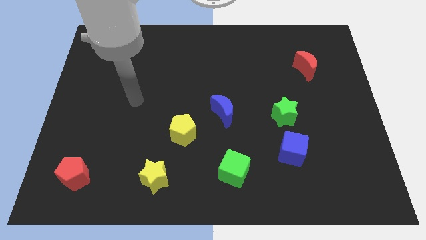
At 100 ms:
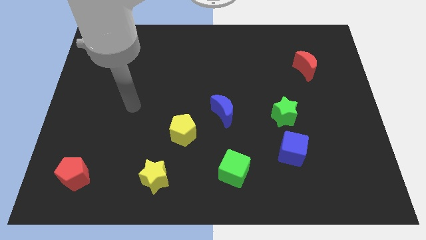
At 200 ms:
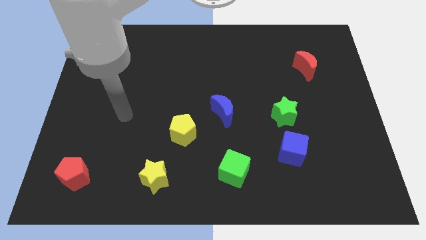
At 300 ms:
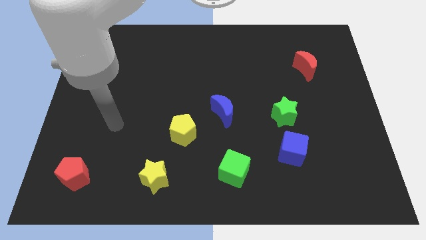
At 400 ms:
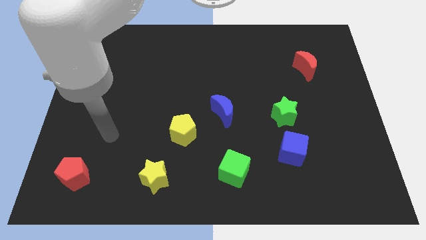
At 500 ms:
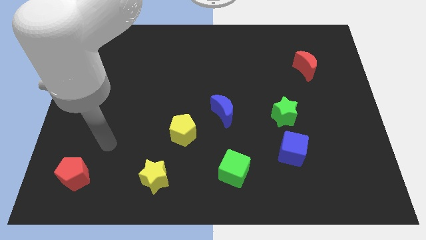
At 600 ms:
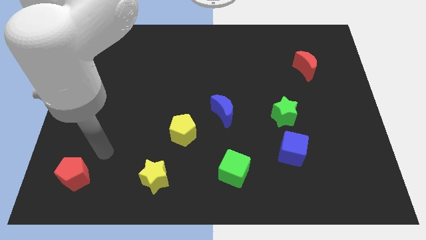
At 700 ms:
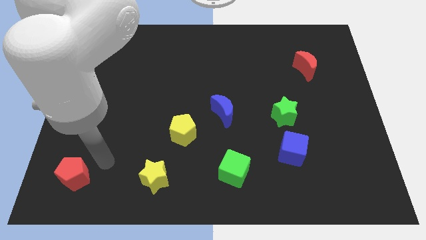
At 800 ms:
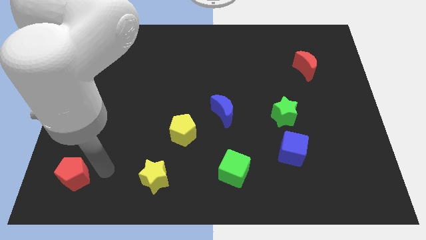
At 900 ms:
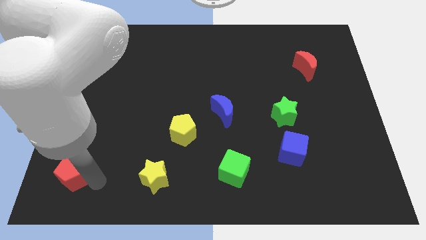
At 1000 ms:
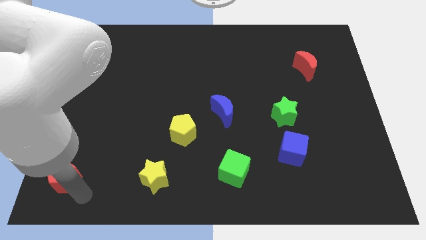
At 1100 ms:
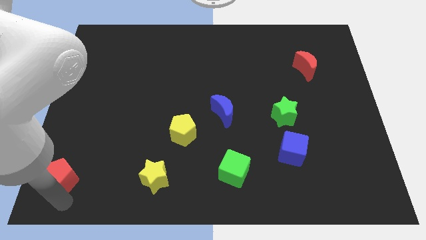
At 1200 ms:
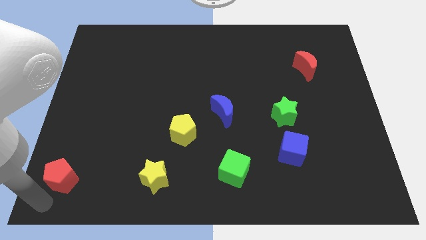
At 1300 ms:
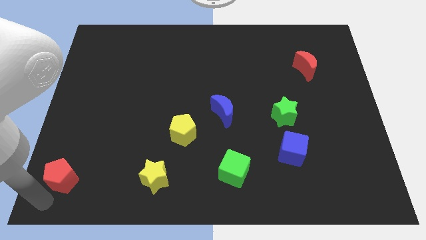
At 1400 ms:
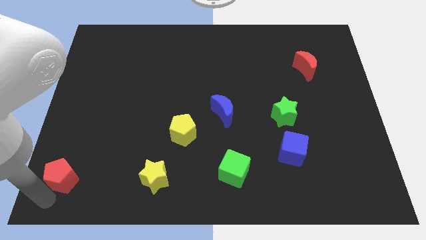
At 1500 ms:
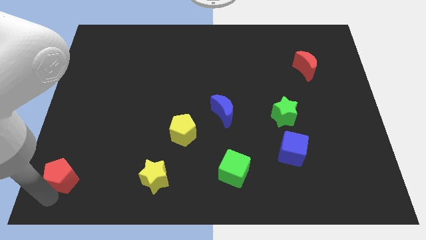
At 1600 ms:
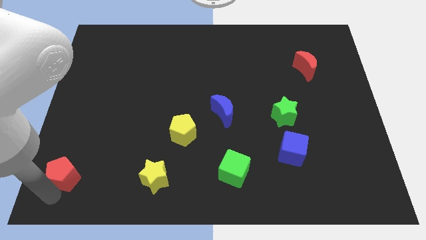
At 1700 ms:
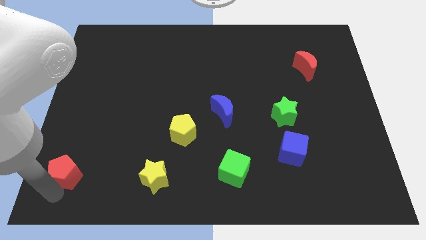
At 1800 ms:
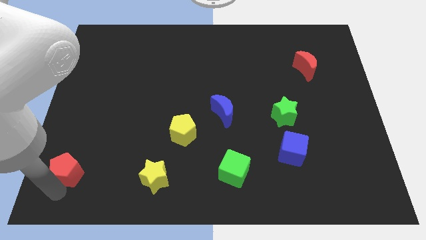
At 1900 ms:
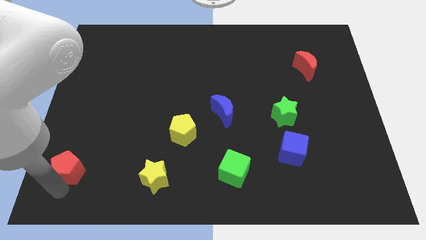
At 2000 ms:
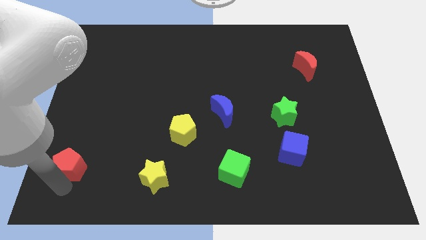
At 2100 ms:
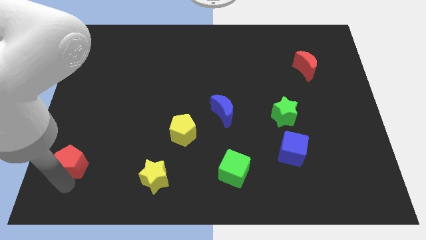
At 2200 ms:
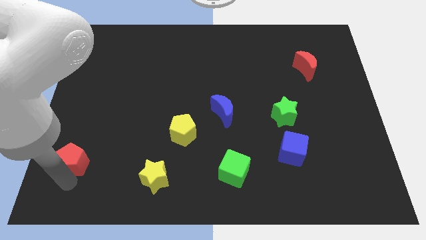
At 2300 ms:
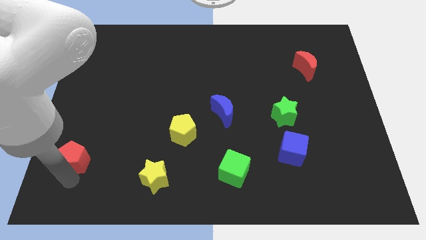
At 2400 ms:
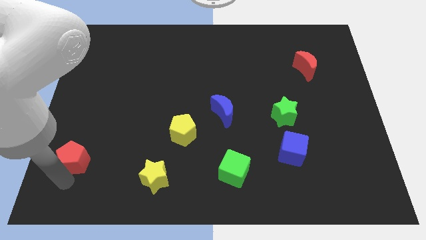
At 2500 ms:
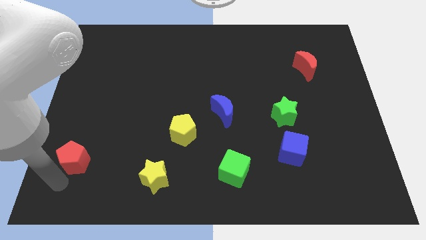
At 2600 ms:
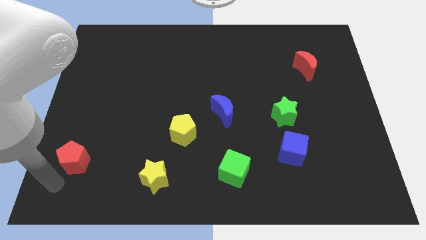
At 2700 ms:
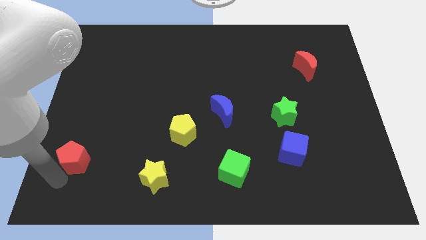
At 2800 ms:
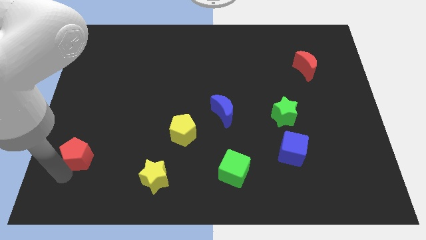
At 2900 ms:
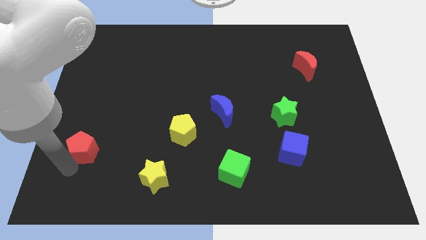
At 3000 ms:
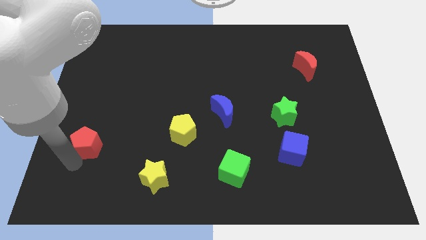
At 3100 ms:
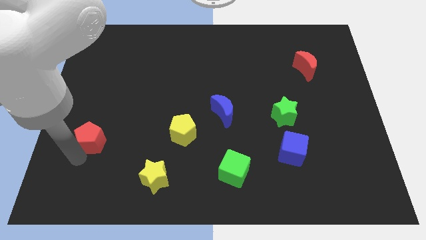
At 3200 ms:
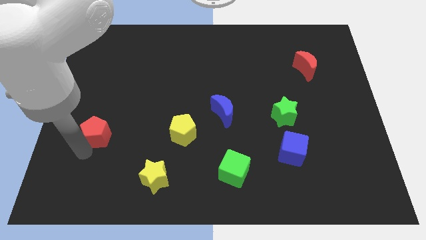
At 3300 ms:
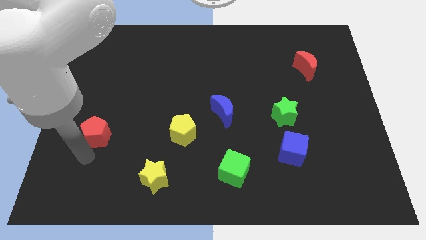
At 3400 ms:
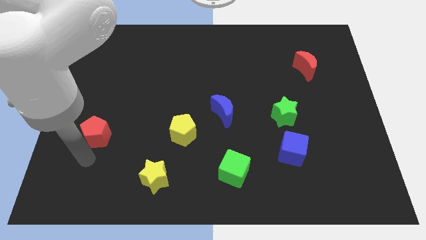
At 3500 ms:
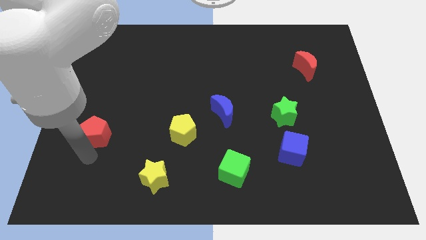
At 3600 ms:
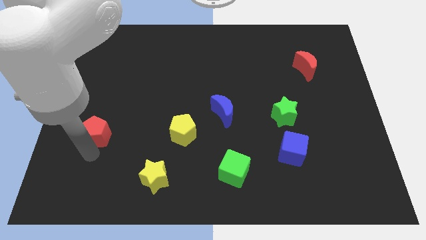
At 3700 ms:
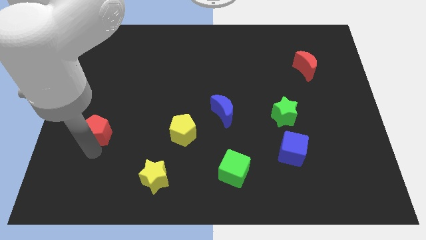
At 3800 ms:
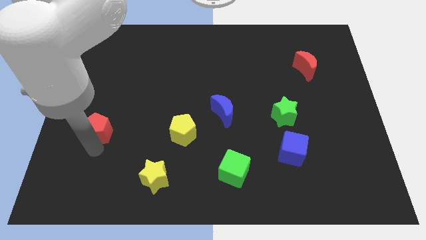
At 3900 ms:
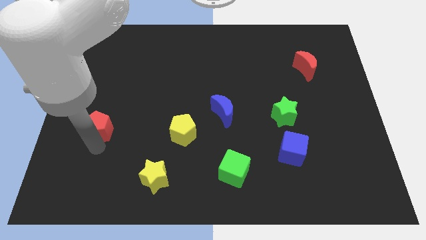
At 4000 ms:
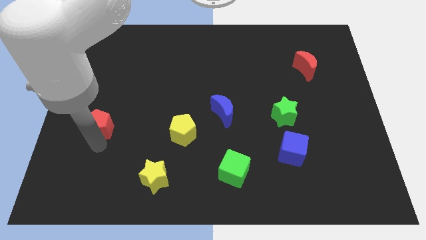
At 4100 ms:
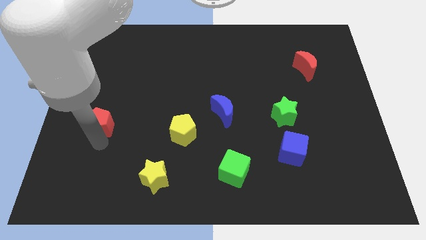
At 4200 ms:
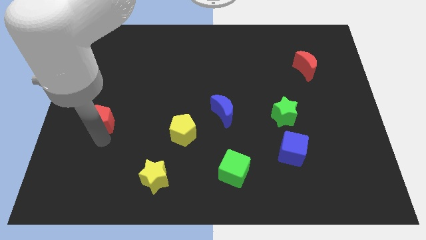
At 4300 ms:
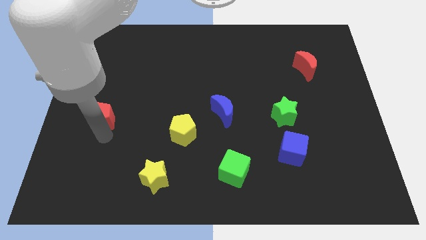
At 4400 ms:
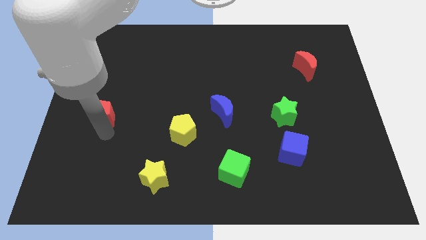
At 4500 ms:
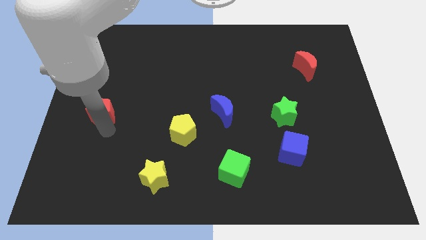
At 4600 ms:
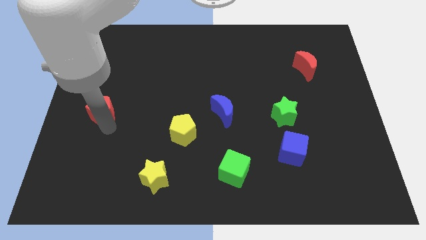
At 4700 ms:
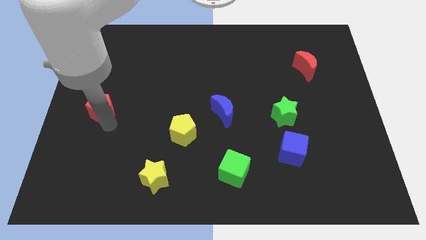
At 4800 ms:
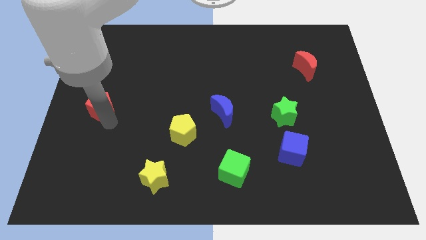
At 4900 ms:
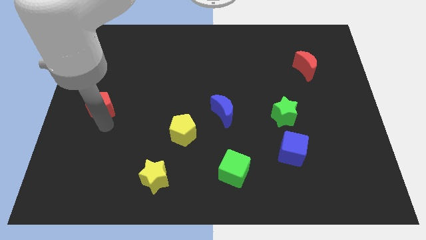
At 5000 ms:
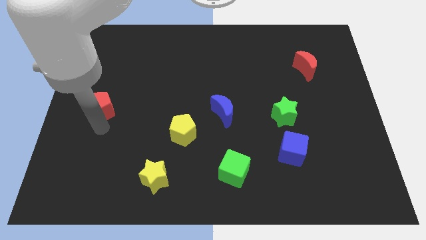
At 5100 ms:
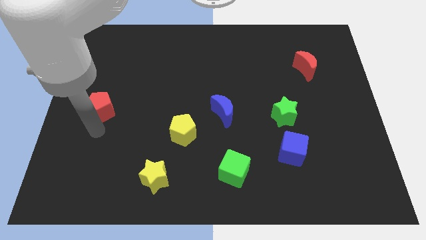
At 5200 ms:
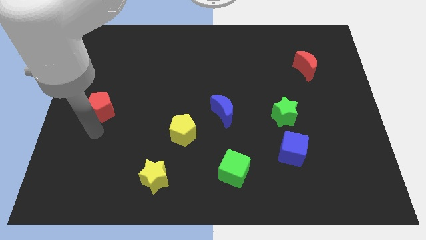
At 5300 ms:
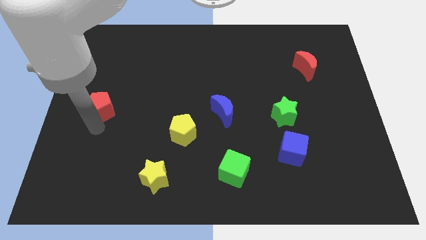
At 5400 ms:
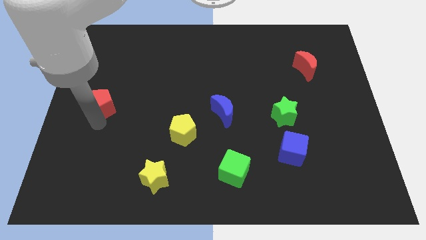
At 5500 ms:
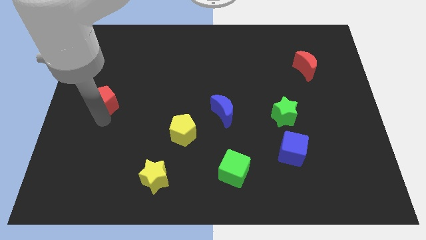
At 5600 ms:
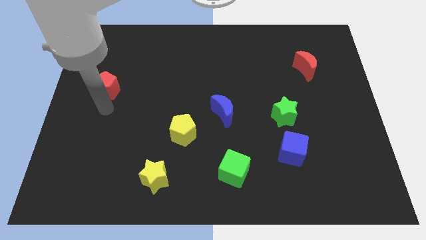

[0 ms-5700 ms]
move the red pentagon upwards

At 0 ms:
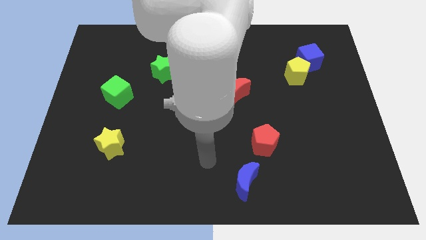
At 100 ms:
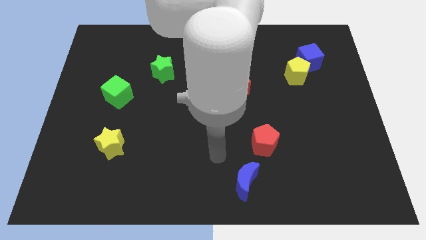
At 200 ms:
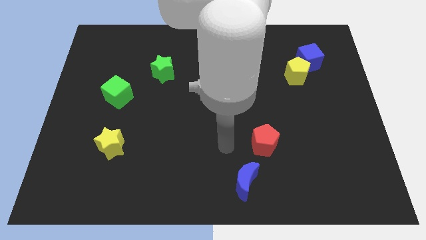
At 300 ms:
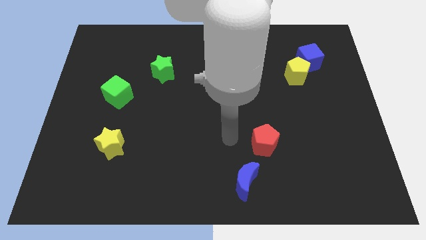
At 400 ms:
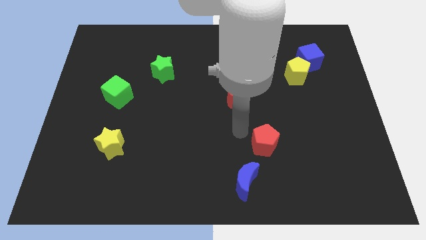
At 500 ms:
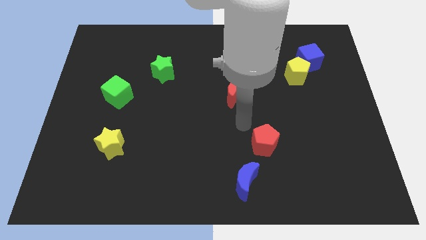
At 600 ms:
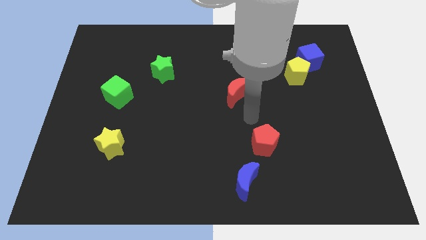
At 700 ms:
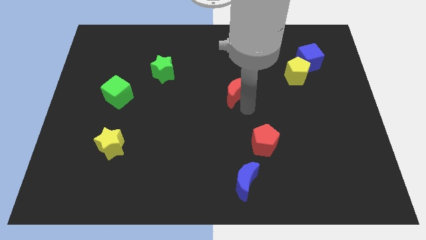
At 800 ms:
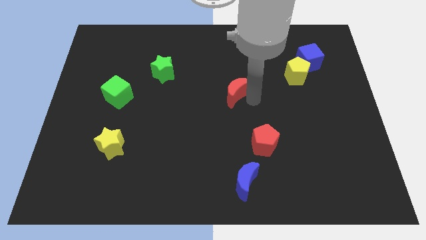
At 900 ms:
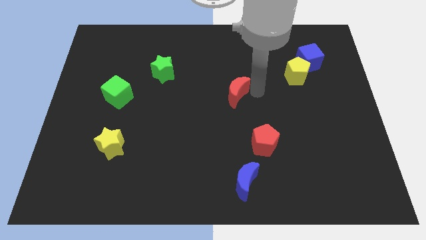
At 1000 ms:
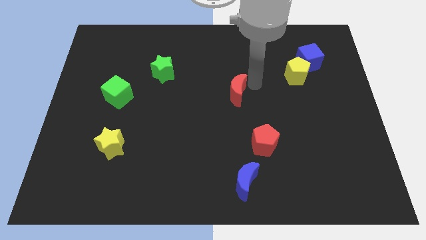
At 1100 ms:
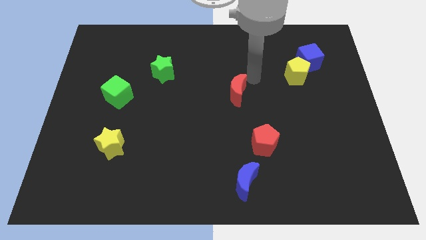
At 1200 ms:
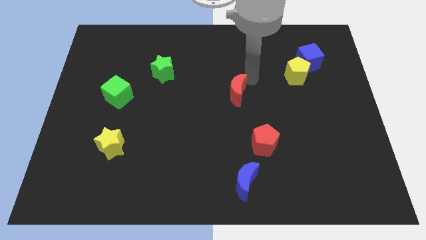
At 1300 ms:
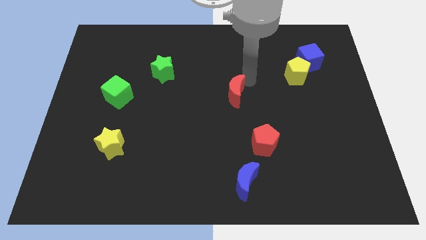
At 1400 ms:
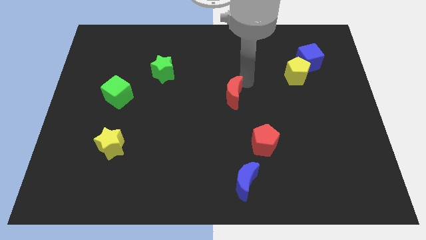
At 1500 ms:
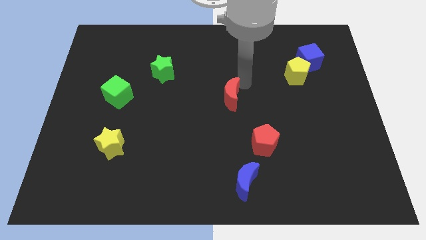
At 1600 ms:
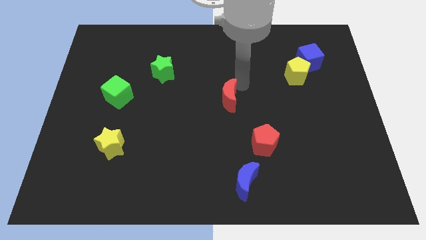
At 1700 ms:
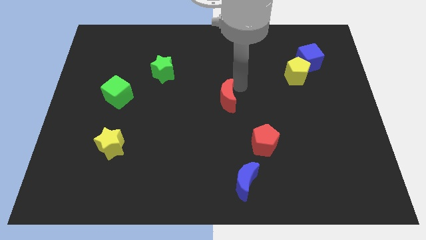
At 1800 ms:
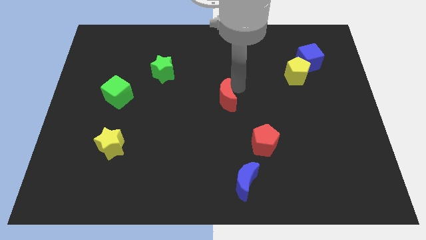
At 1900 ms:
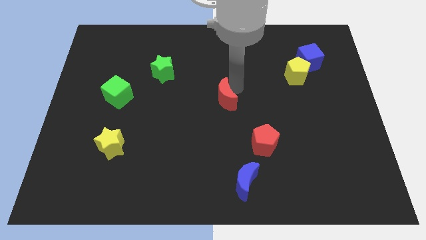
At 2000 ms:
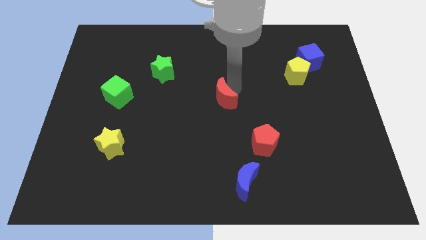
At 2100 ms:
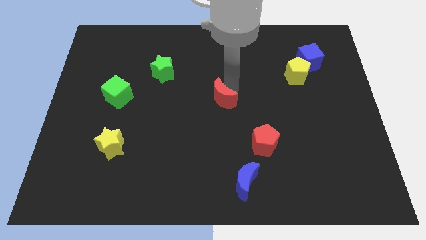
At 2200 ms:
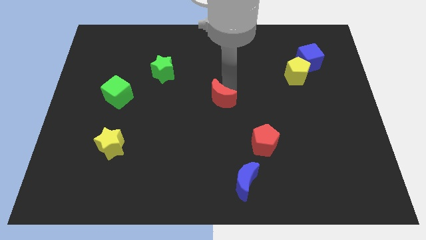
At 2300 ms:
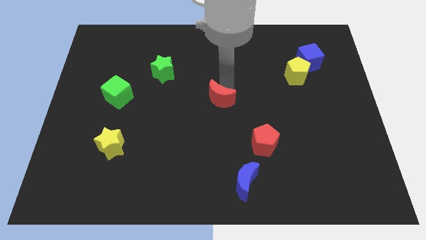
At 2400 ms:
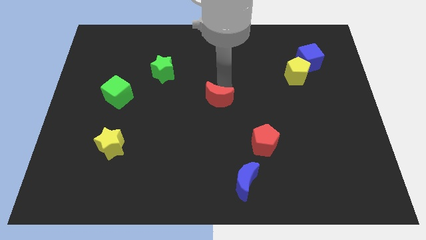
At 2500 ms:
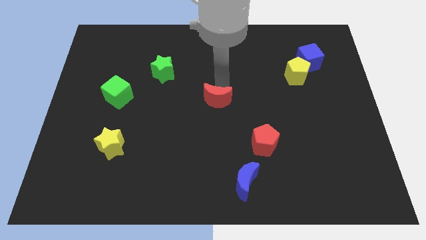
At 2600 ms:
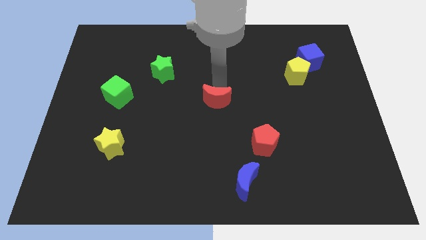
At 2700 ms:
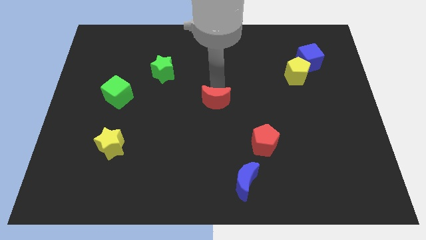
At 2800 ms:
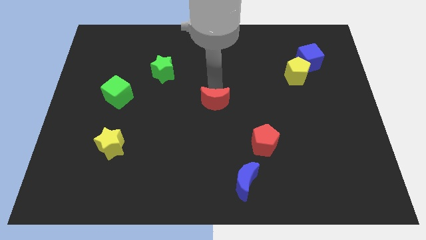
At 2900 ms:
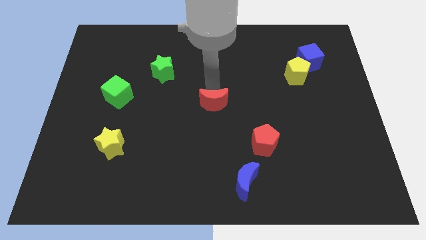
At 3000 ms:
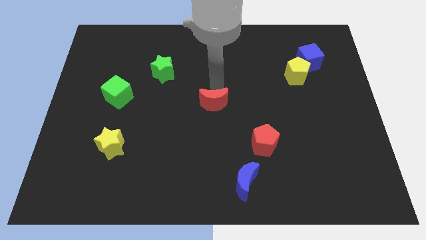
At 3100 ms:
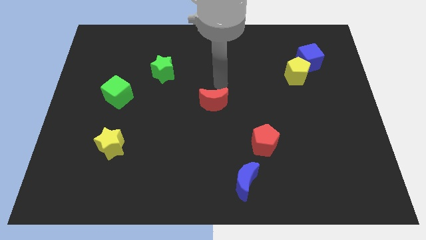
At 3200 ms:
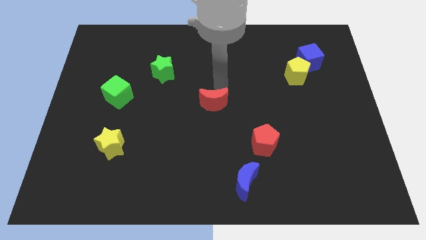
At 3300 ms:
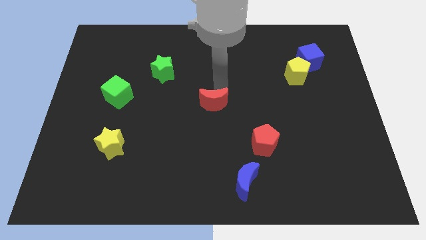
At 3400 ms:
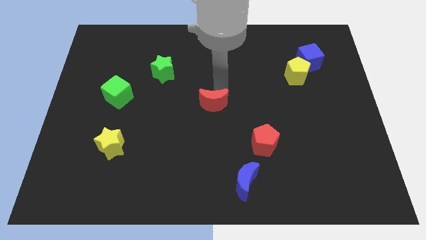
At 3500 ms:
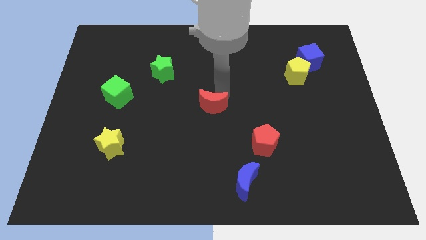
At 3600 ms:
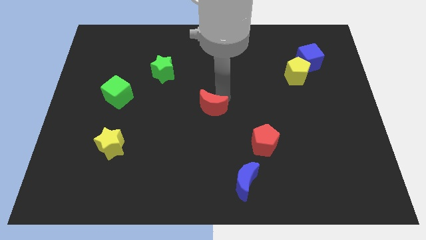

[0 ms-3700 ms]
slightly slide the red moon diagonally downwards and to the left
